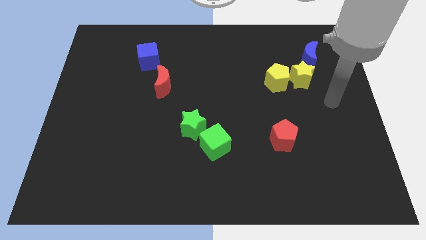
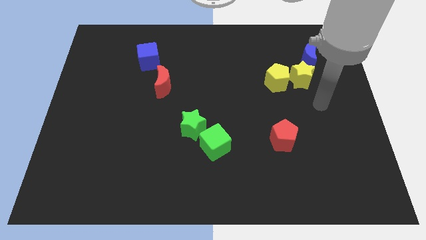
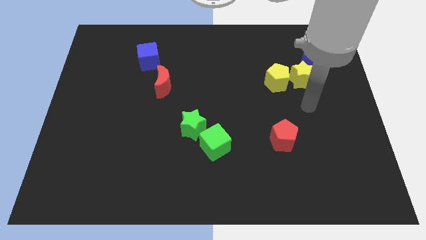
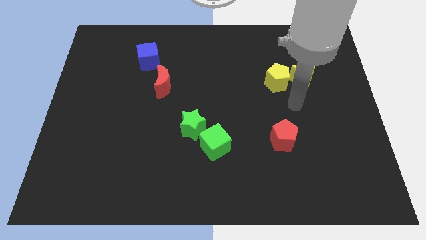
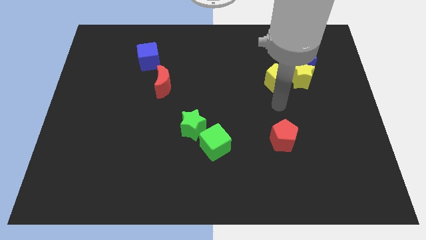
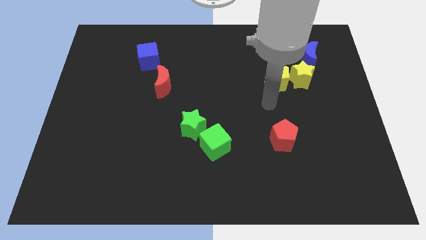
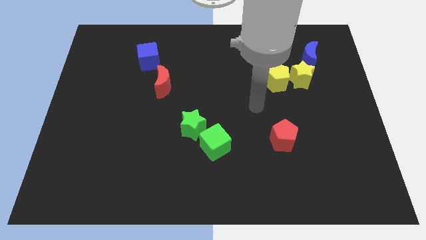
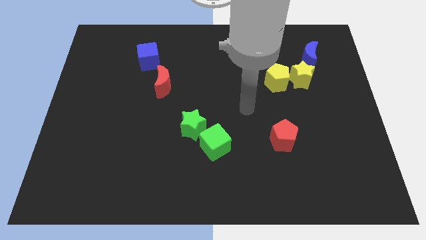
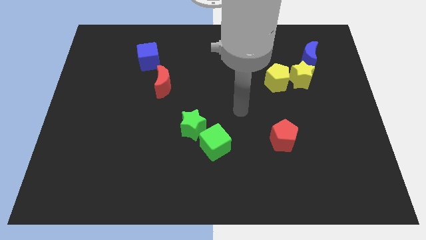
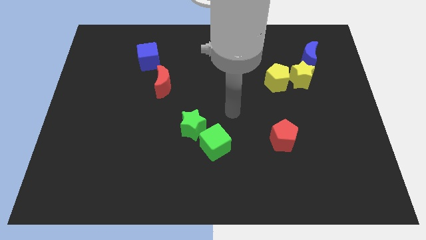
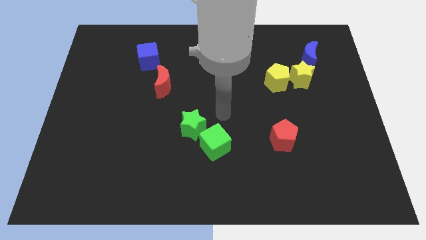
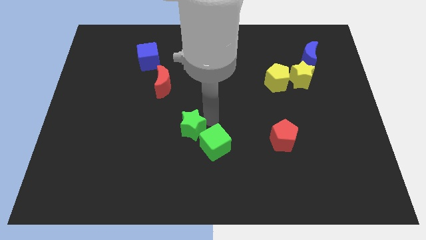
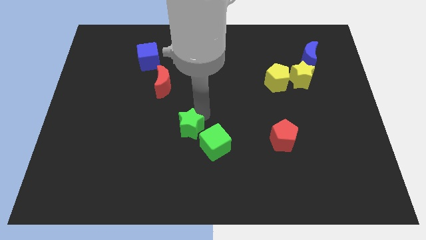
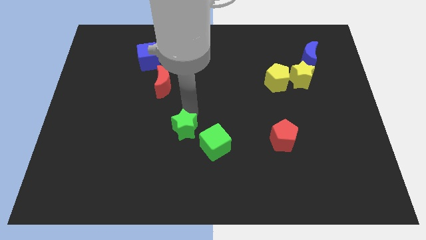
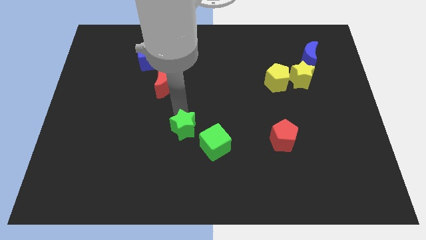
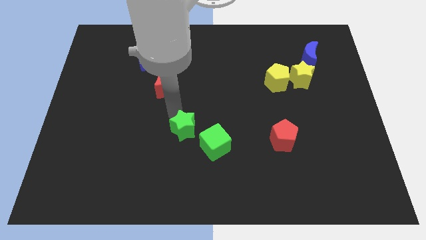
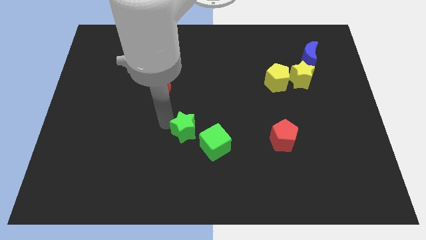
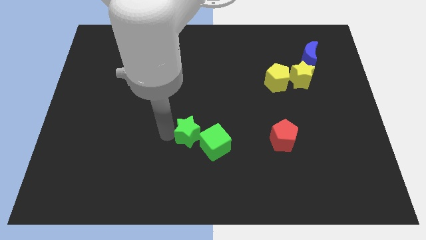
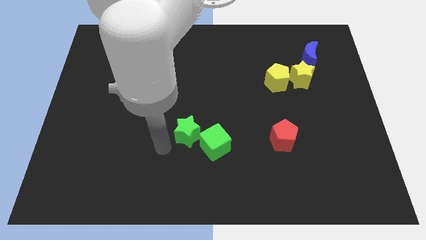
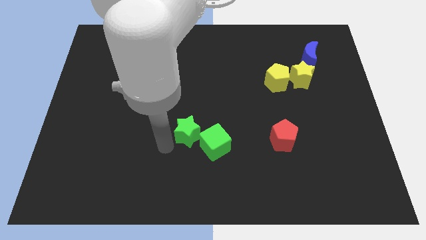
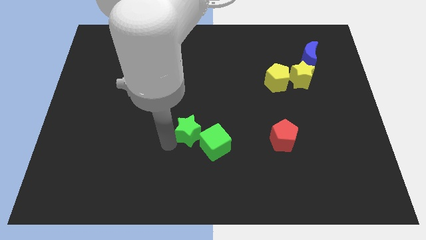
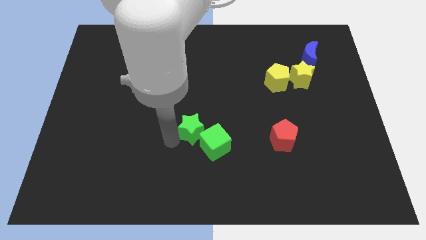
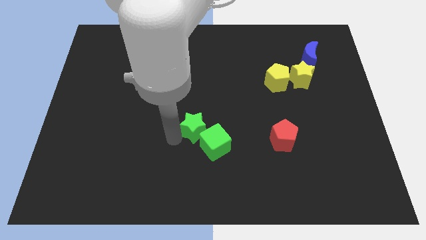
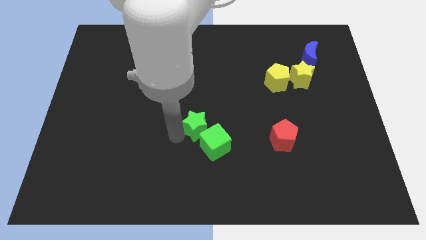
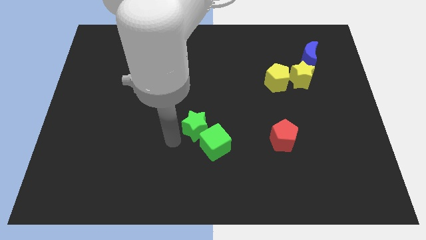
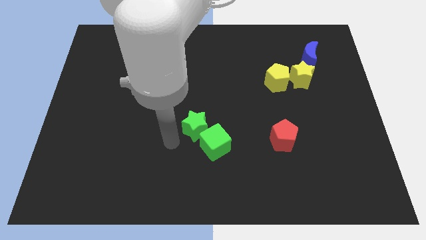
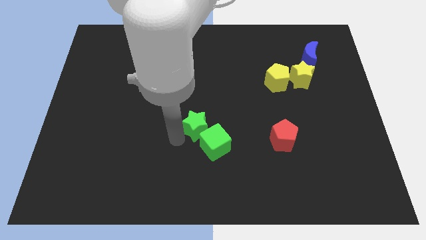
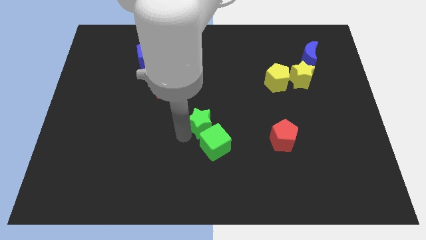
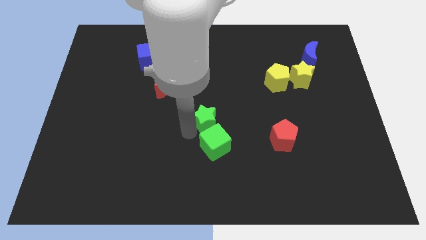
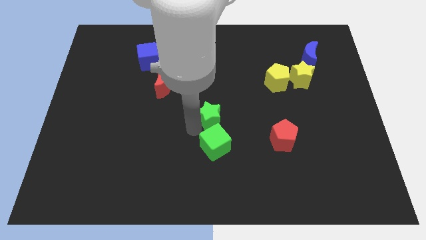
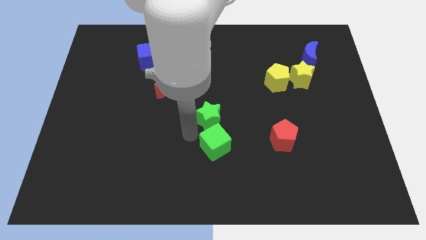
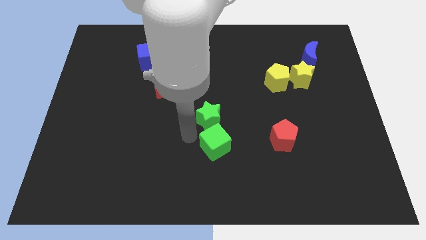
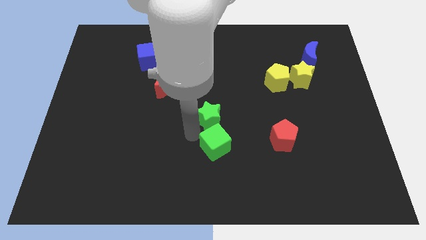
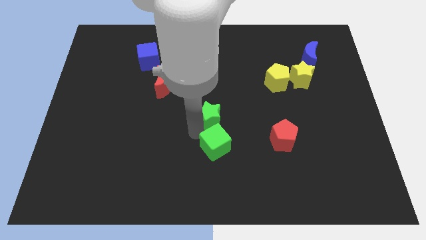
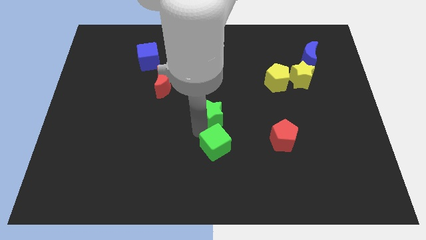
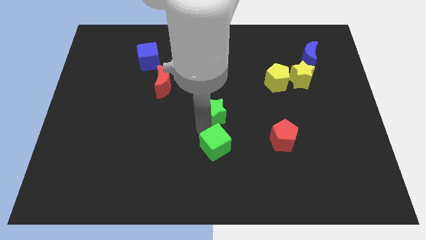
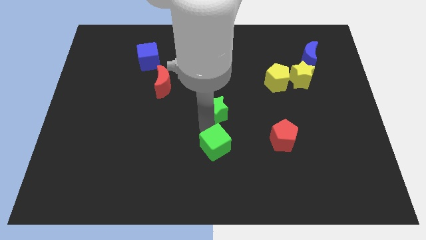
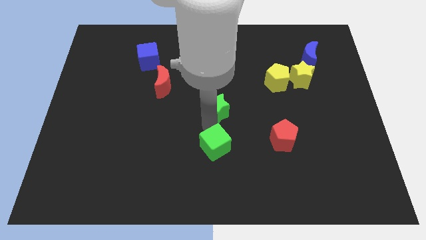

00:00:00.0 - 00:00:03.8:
move the green star upwards and to the right diagonally a little

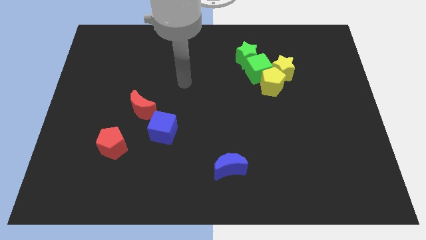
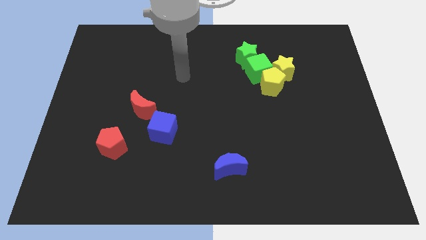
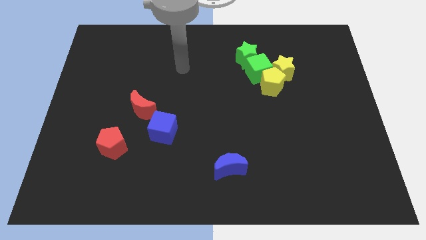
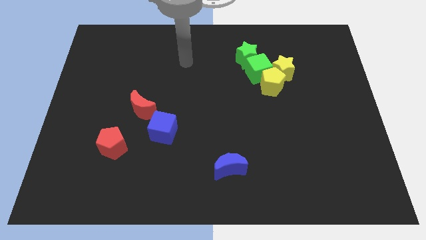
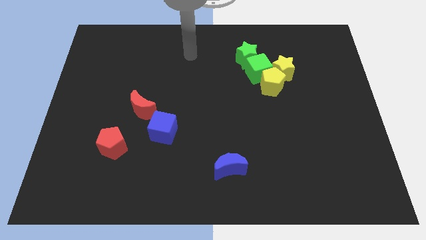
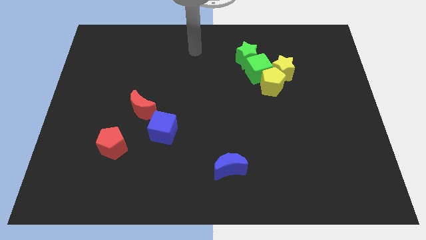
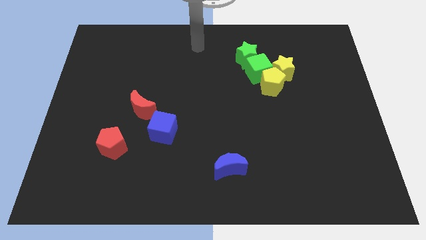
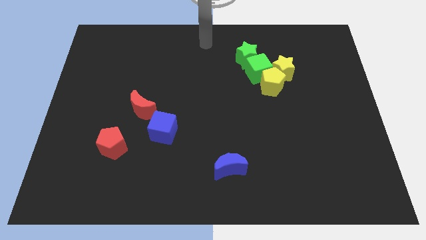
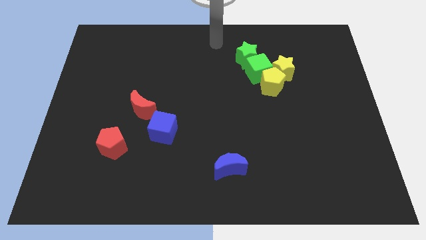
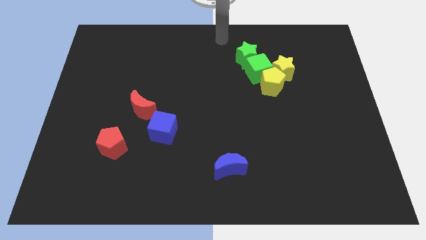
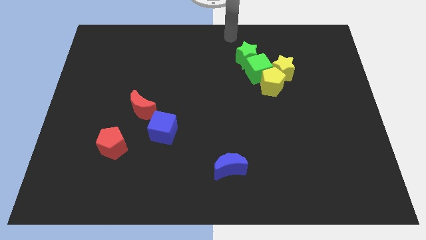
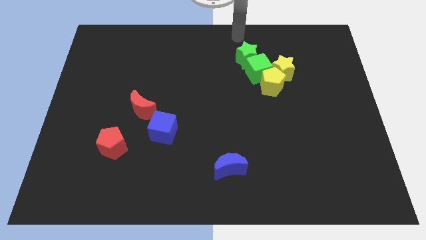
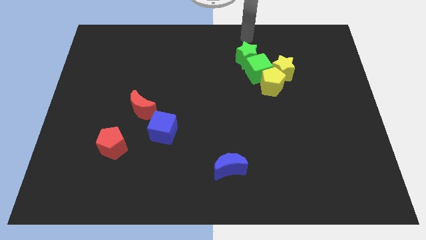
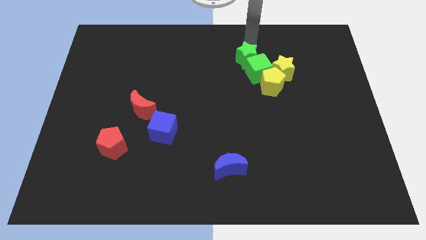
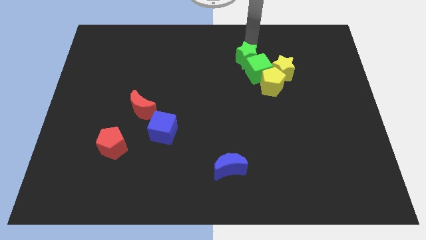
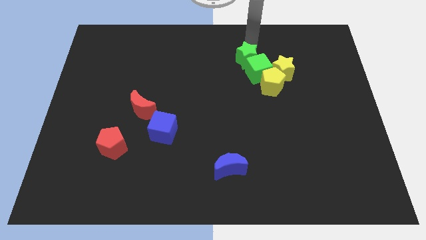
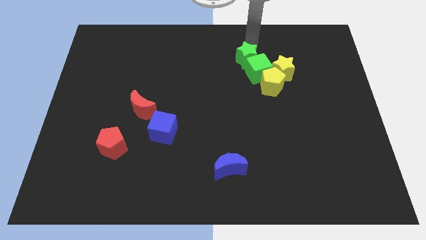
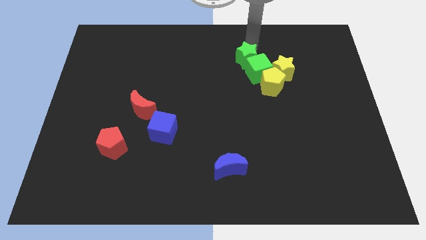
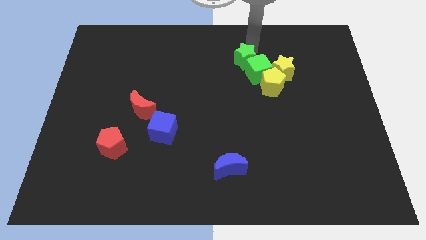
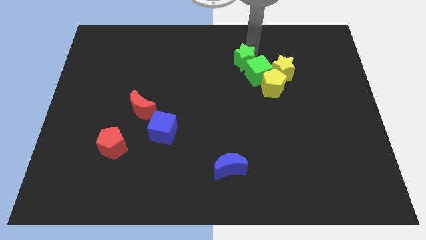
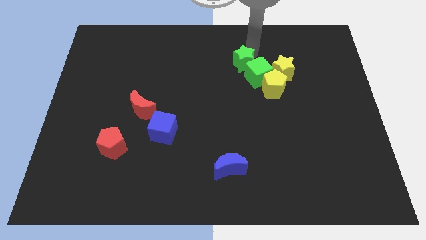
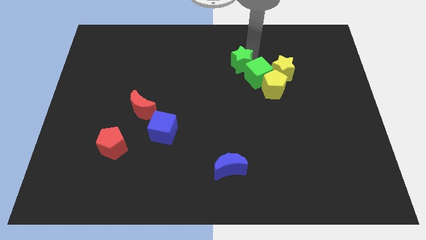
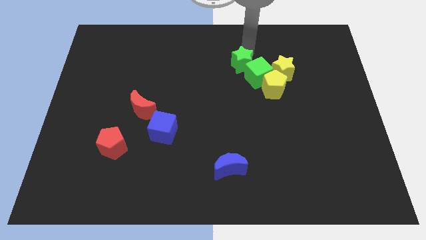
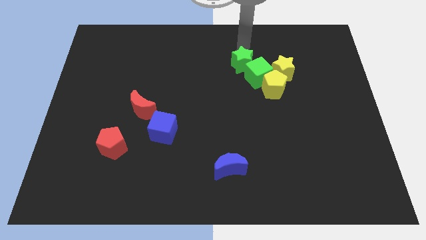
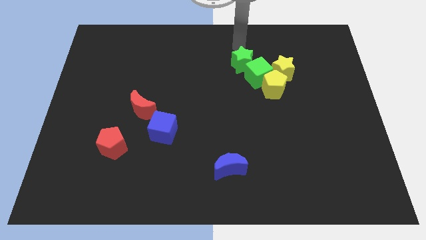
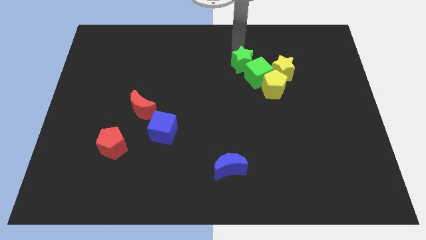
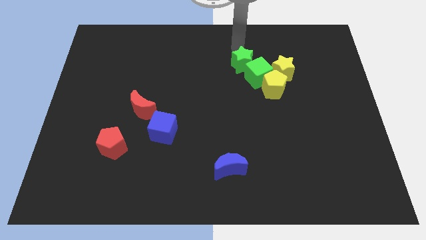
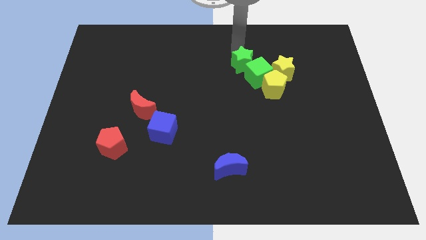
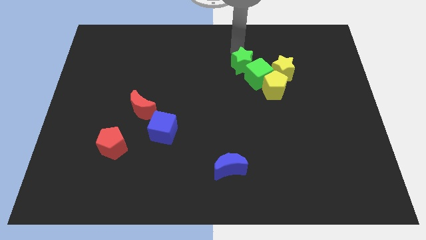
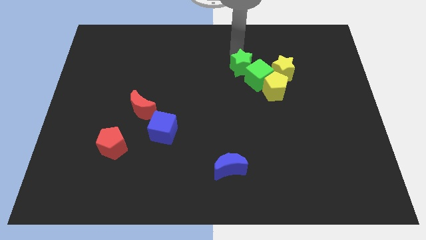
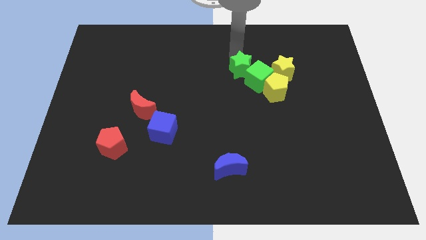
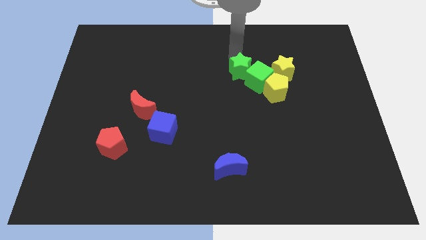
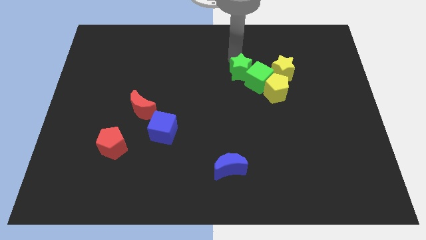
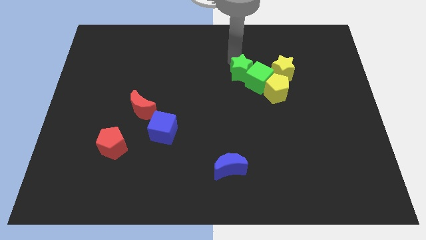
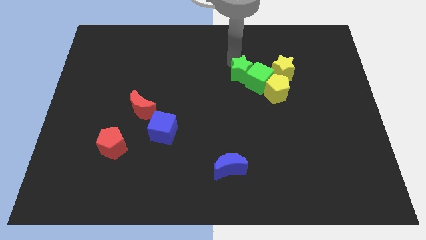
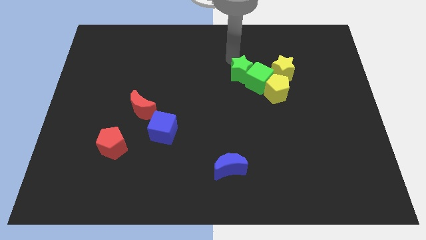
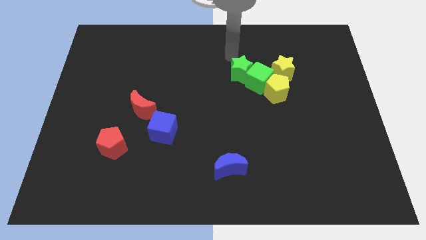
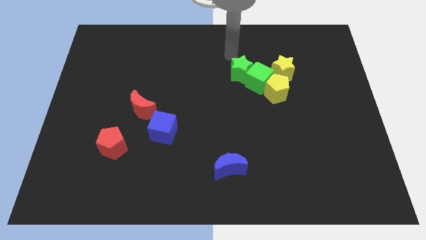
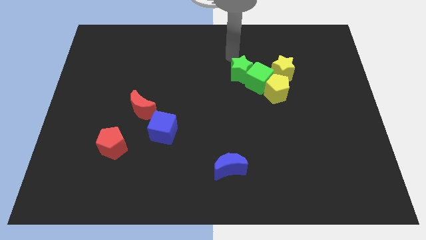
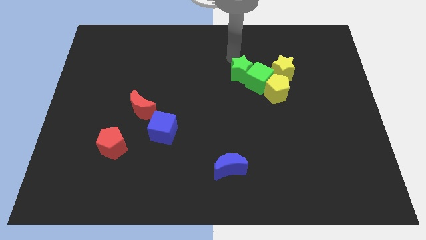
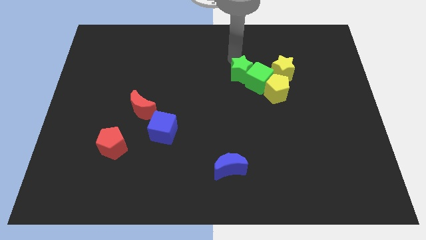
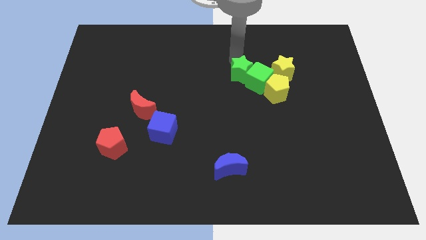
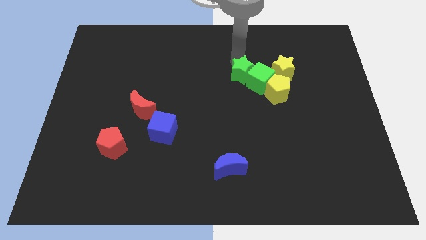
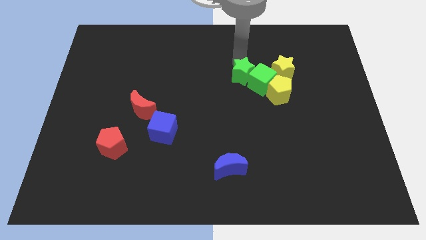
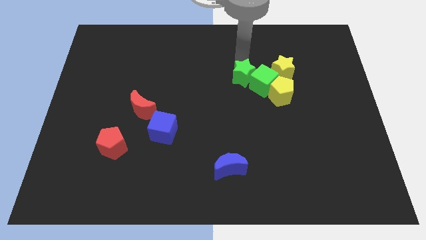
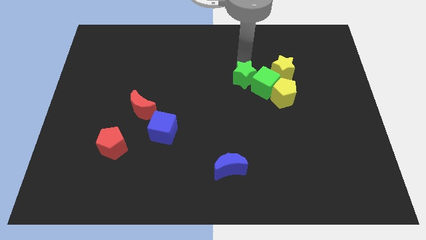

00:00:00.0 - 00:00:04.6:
move the green star slightly downwards
